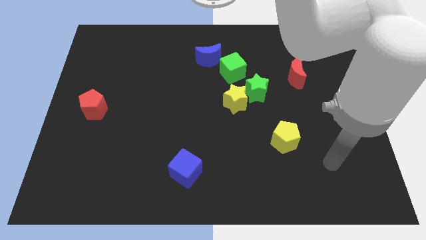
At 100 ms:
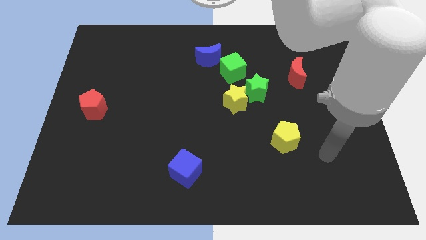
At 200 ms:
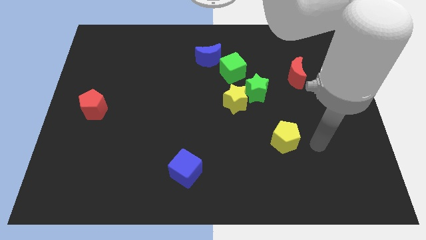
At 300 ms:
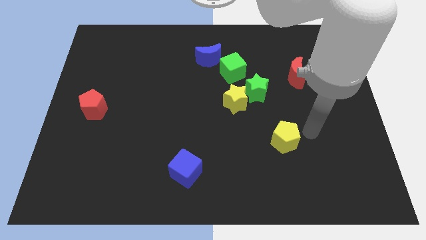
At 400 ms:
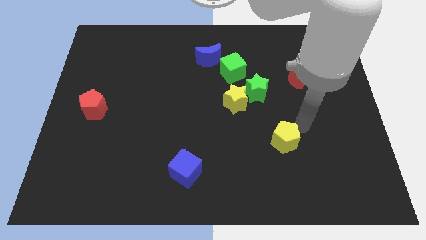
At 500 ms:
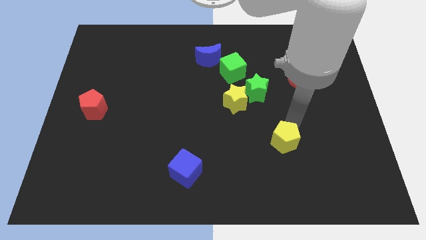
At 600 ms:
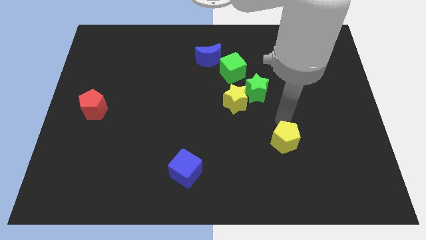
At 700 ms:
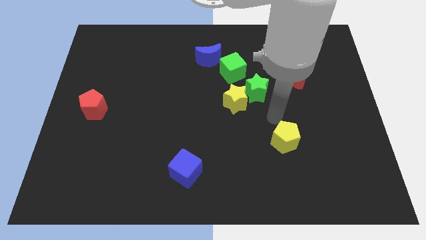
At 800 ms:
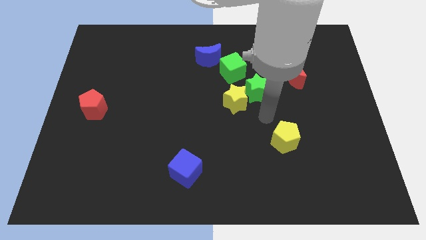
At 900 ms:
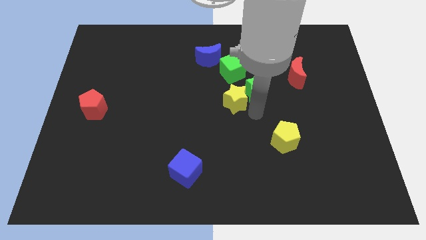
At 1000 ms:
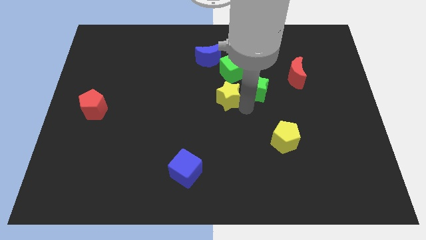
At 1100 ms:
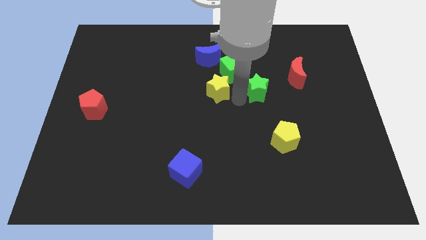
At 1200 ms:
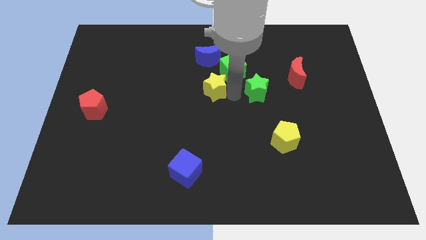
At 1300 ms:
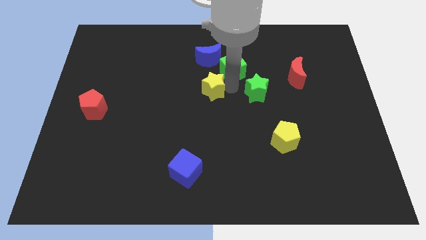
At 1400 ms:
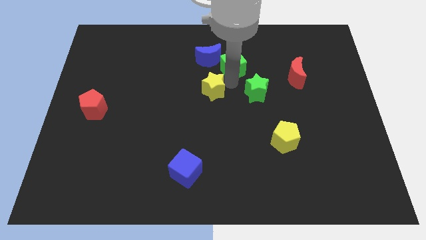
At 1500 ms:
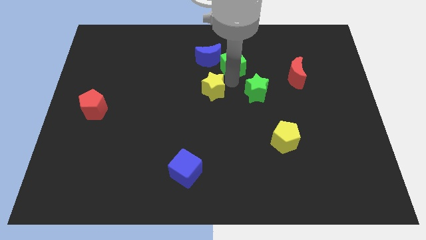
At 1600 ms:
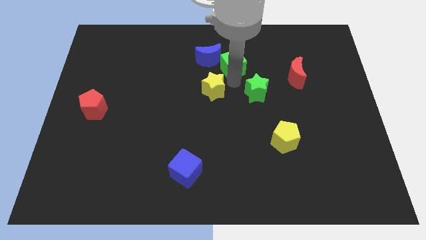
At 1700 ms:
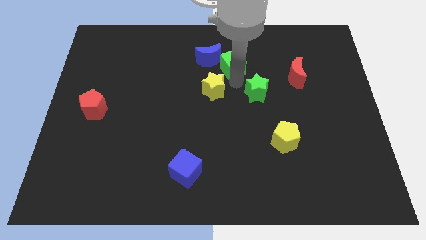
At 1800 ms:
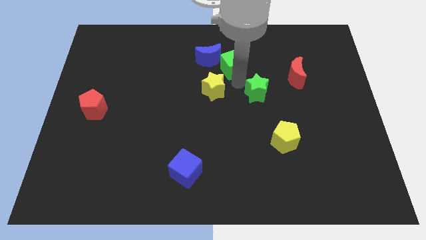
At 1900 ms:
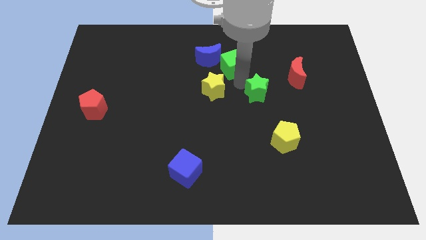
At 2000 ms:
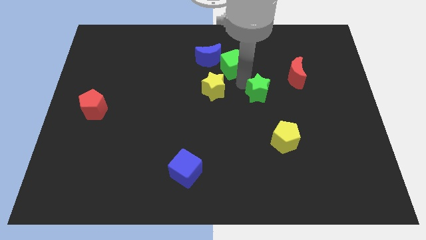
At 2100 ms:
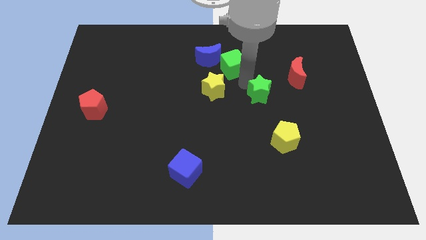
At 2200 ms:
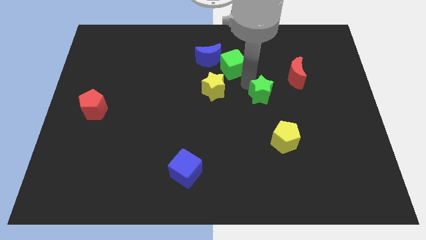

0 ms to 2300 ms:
pull the green star apart from the yellow star and green cube

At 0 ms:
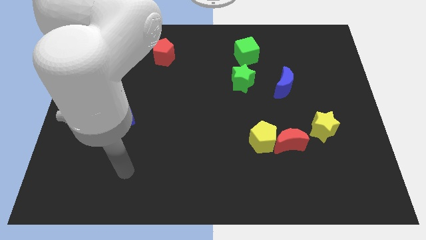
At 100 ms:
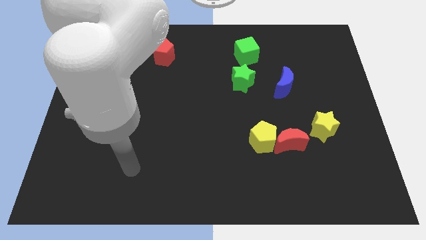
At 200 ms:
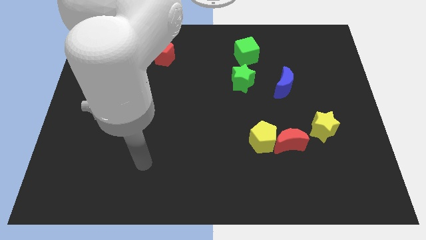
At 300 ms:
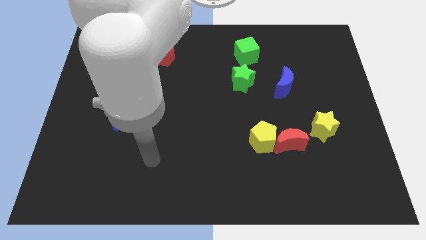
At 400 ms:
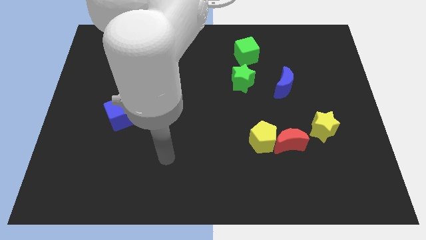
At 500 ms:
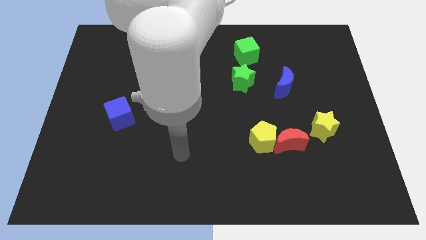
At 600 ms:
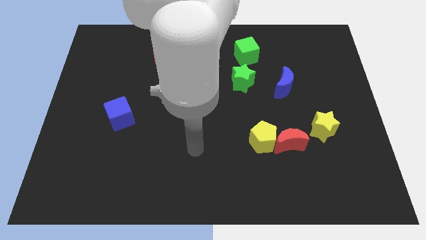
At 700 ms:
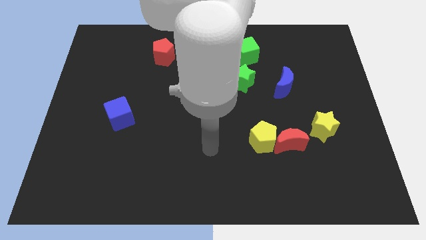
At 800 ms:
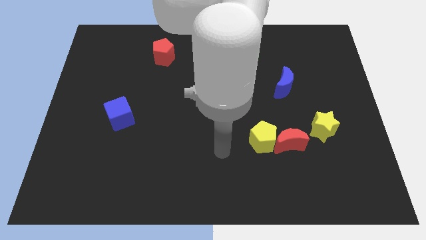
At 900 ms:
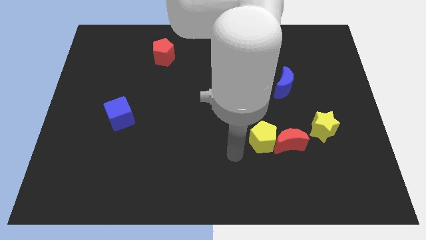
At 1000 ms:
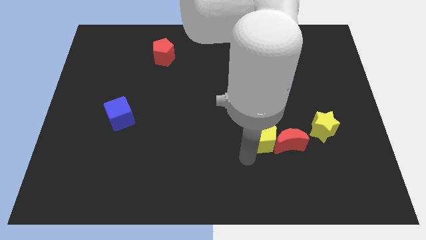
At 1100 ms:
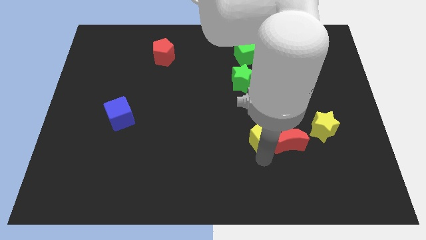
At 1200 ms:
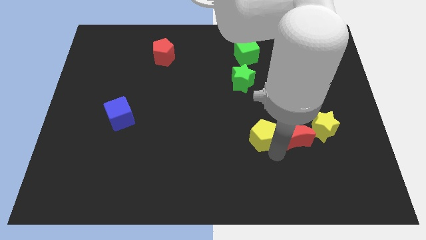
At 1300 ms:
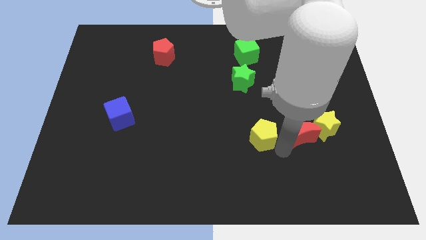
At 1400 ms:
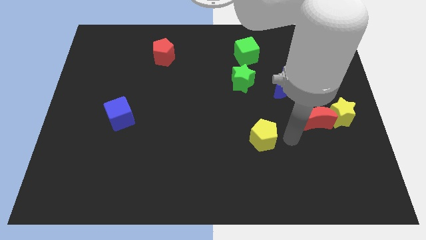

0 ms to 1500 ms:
separate the yellow pentagon from the red moon

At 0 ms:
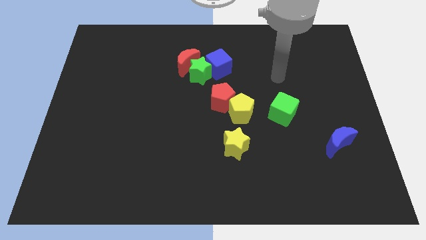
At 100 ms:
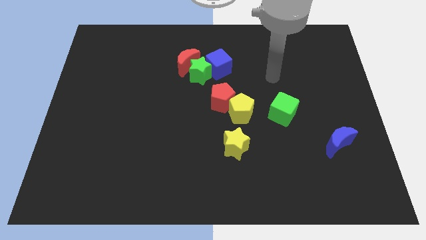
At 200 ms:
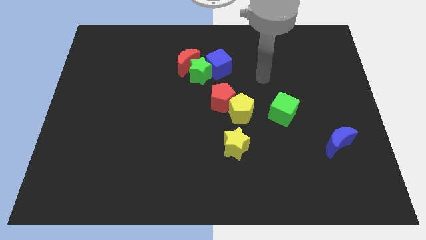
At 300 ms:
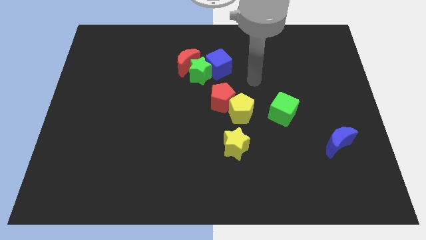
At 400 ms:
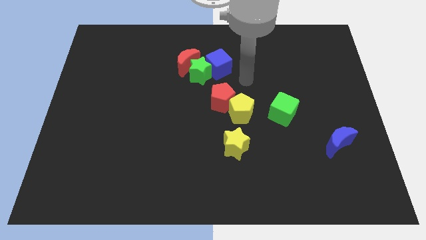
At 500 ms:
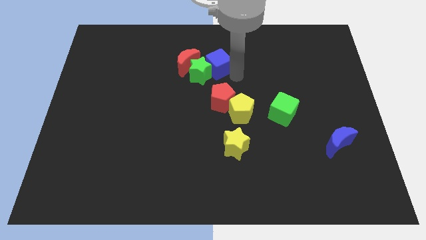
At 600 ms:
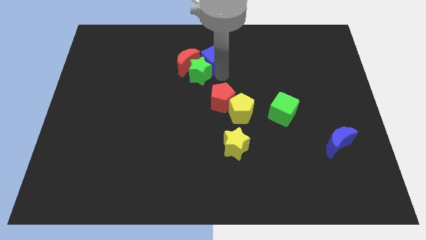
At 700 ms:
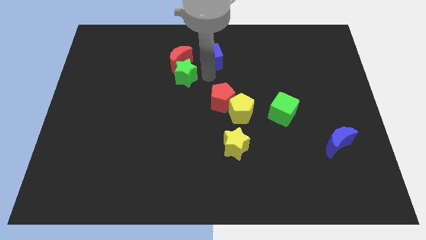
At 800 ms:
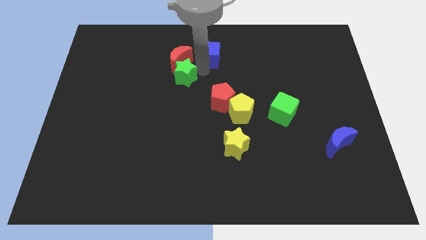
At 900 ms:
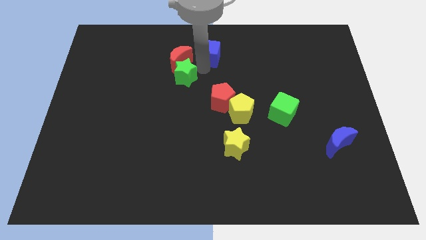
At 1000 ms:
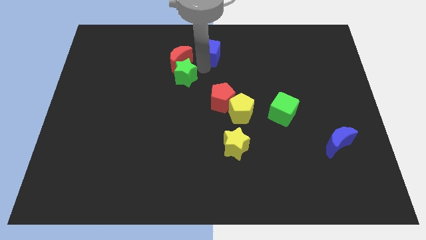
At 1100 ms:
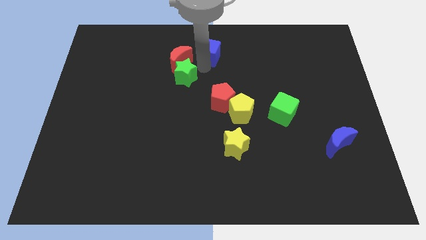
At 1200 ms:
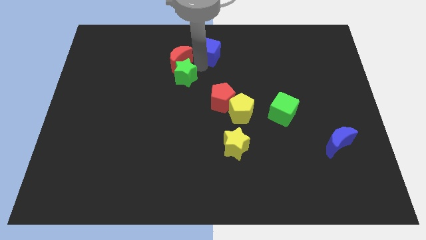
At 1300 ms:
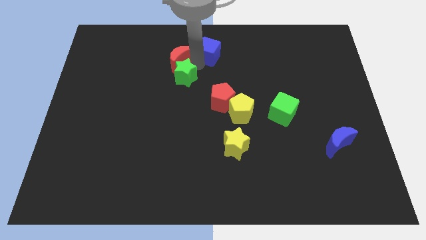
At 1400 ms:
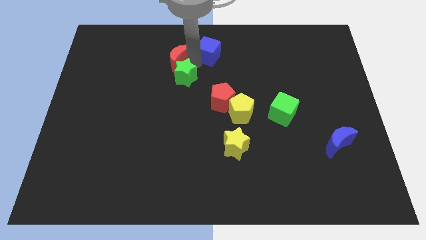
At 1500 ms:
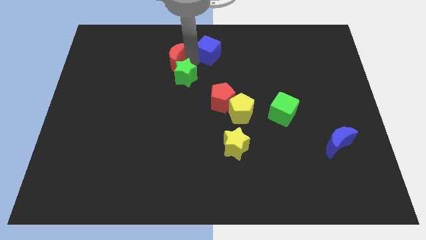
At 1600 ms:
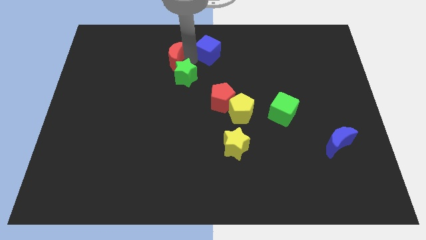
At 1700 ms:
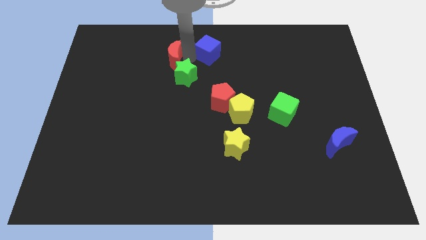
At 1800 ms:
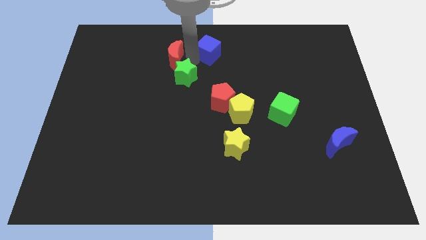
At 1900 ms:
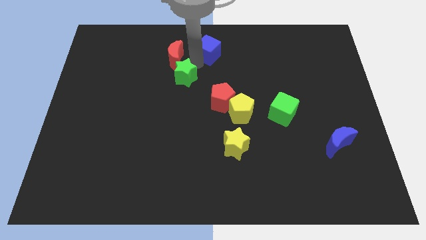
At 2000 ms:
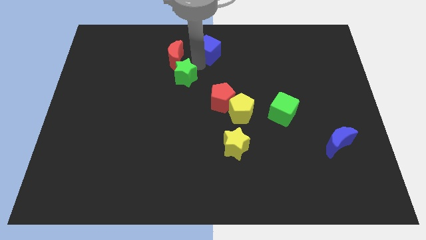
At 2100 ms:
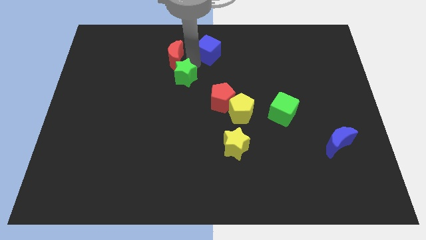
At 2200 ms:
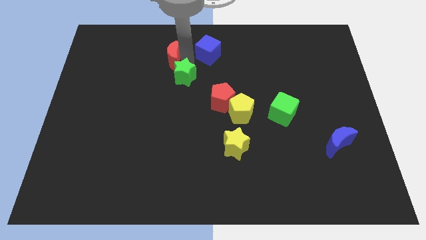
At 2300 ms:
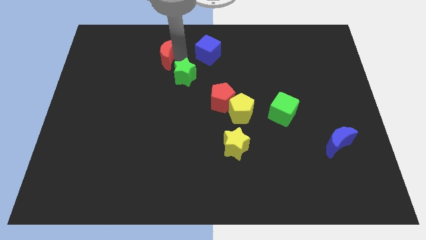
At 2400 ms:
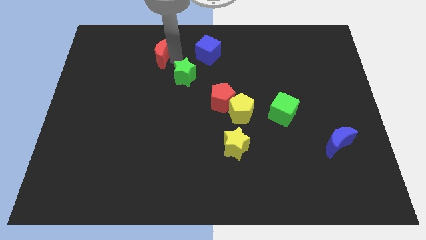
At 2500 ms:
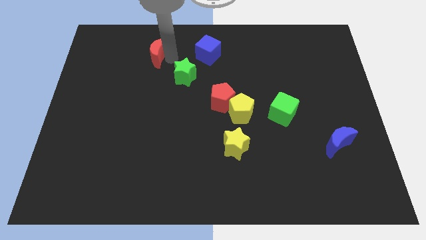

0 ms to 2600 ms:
separate the red moon from the green star and blue cube

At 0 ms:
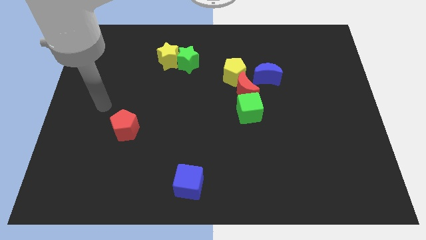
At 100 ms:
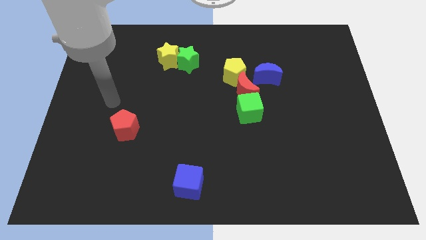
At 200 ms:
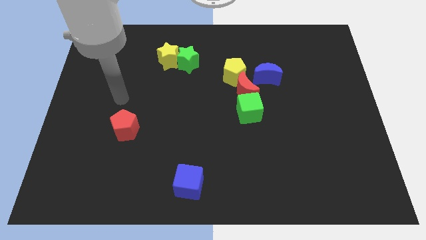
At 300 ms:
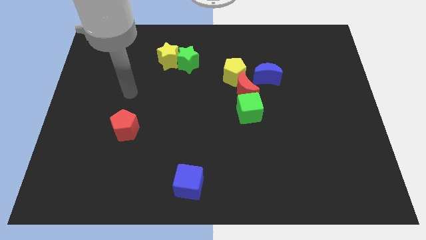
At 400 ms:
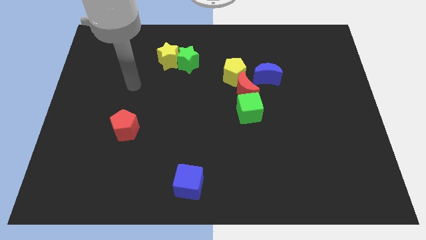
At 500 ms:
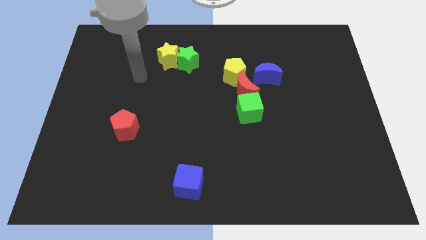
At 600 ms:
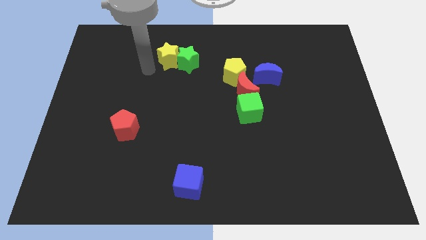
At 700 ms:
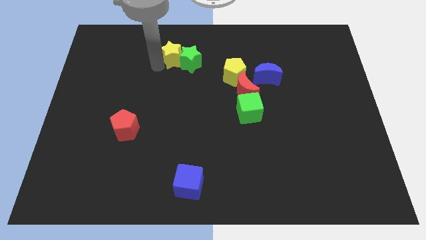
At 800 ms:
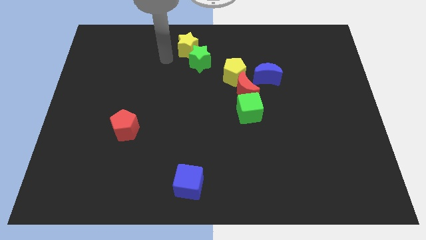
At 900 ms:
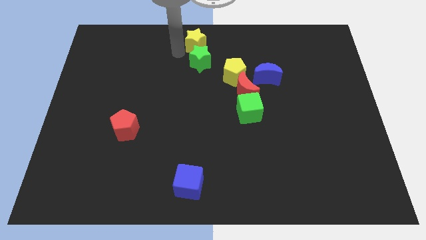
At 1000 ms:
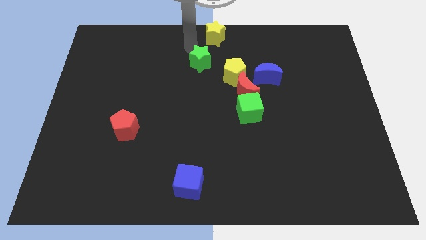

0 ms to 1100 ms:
pull the green star apart from the yellow star

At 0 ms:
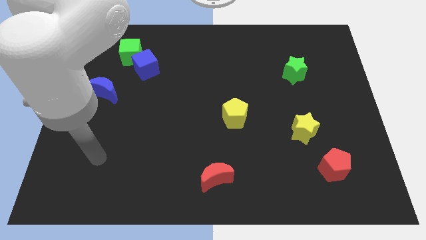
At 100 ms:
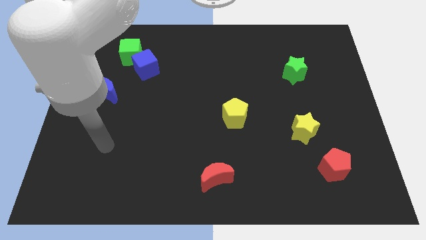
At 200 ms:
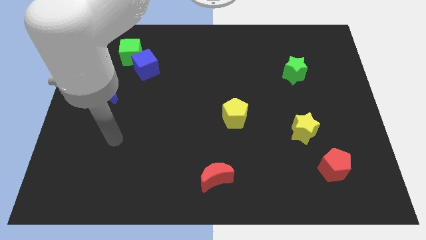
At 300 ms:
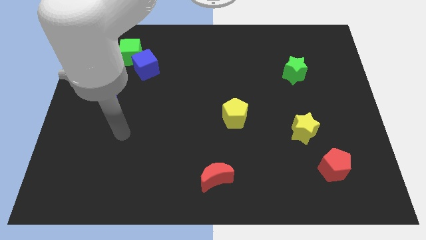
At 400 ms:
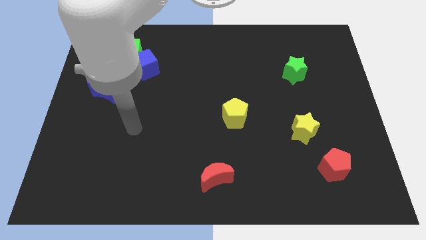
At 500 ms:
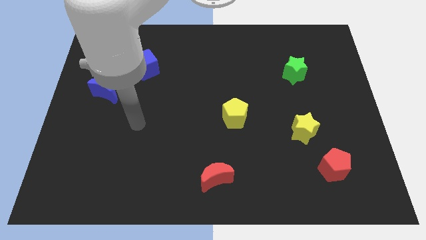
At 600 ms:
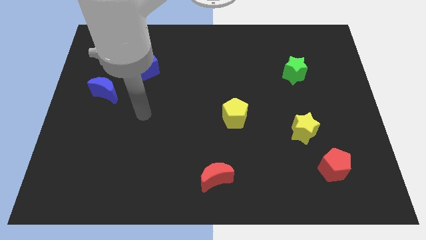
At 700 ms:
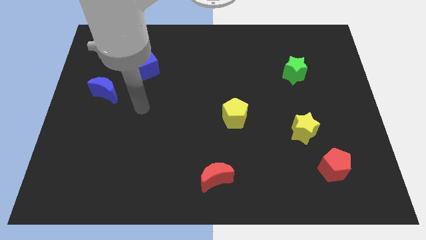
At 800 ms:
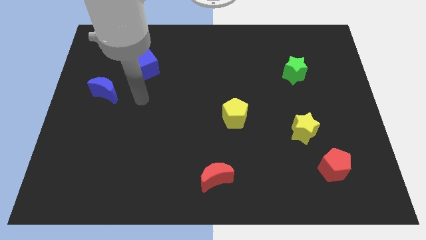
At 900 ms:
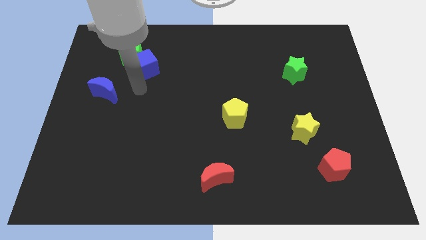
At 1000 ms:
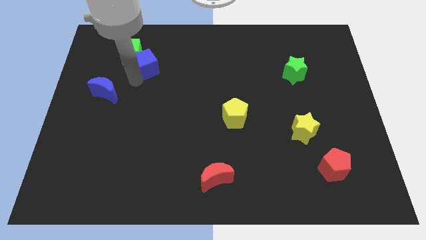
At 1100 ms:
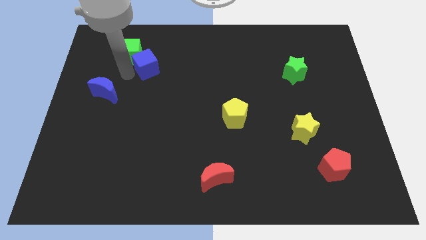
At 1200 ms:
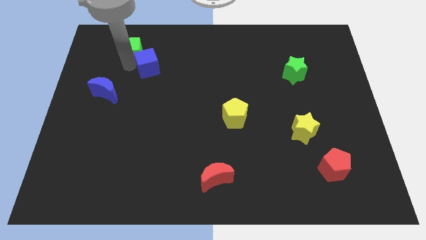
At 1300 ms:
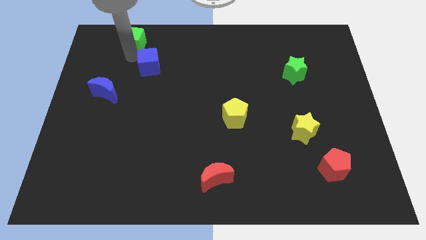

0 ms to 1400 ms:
pull the blue cube apart from the green cube

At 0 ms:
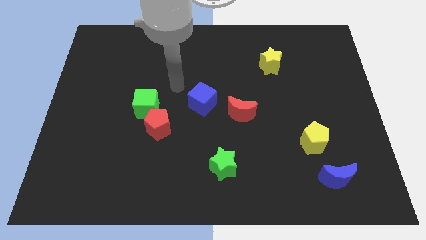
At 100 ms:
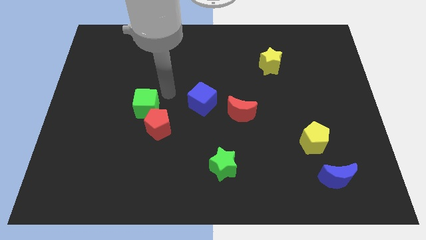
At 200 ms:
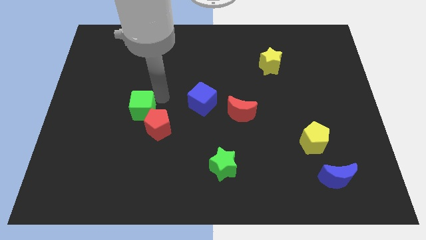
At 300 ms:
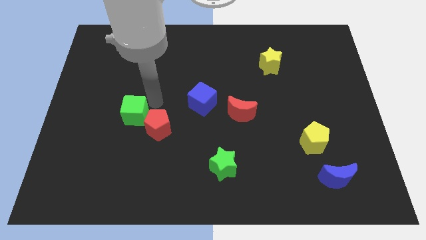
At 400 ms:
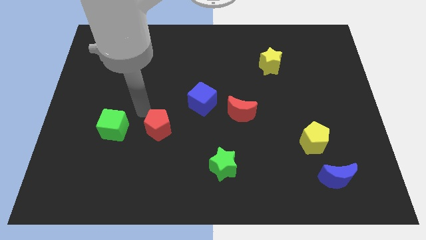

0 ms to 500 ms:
pull the red pentagon apart from the green cube
